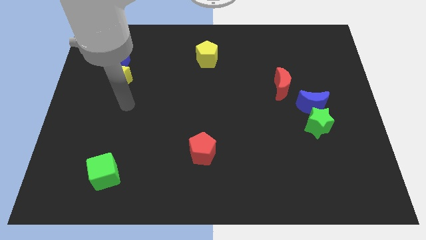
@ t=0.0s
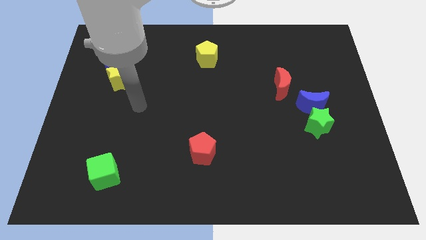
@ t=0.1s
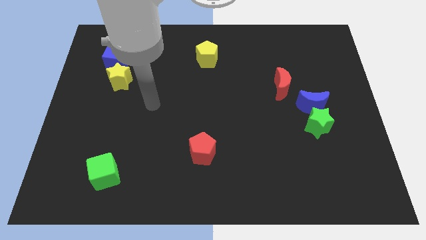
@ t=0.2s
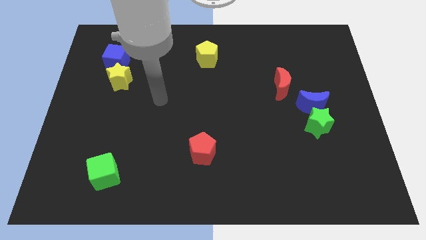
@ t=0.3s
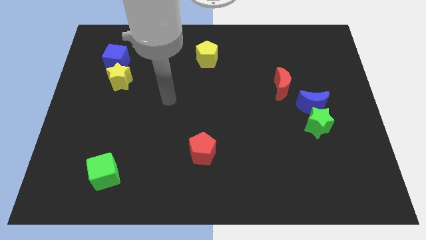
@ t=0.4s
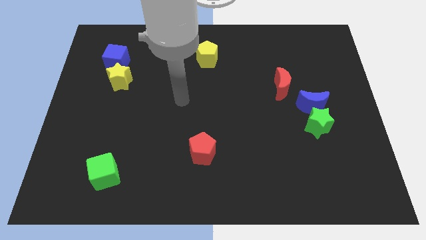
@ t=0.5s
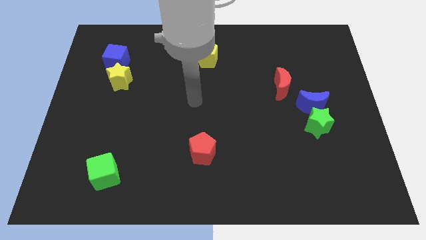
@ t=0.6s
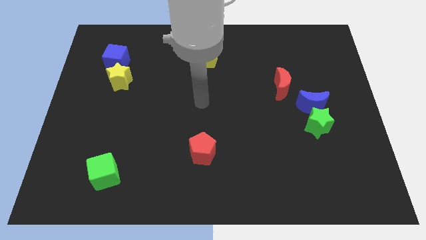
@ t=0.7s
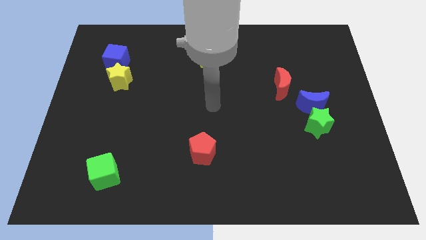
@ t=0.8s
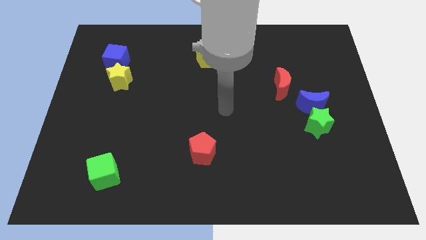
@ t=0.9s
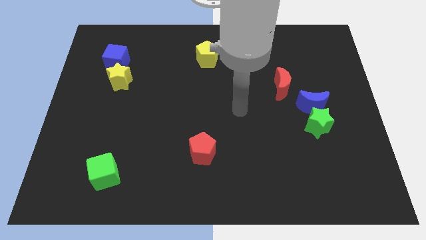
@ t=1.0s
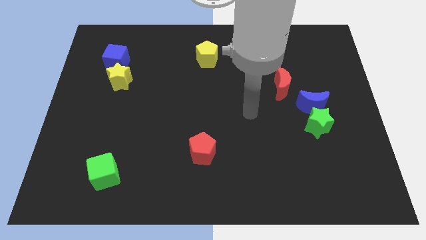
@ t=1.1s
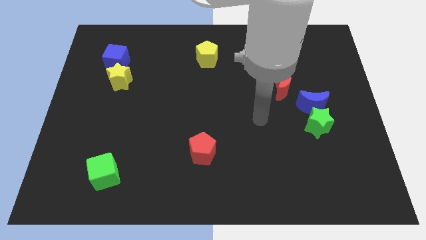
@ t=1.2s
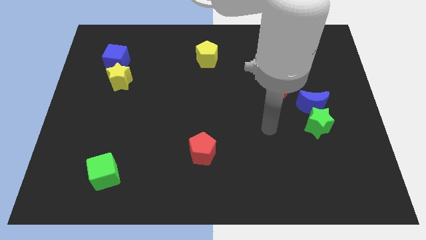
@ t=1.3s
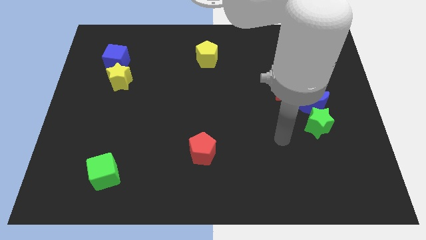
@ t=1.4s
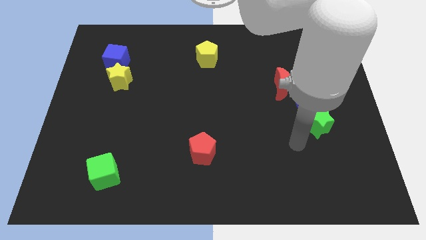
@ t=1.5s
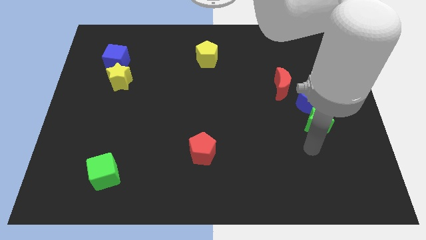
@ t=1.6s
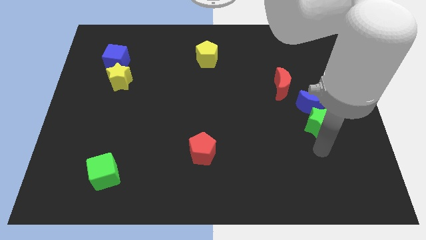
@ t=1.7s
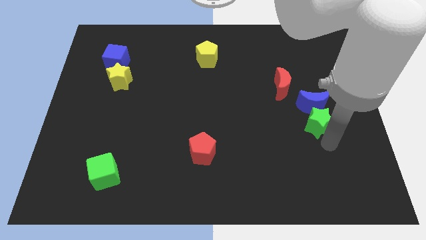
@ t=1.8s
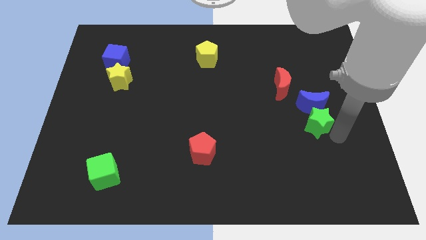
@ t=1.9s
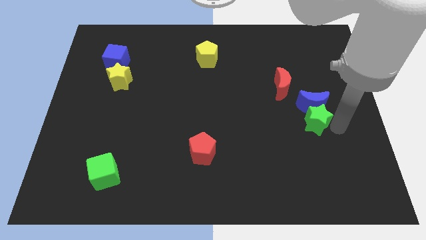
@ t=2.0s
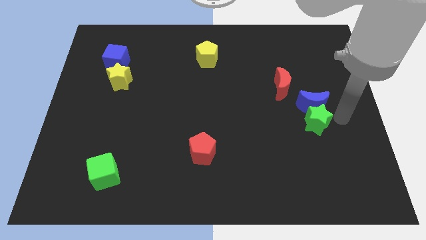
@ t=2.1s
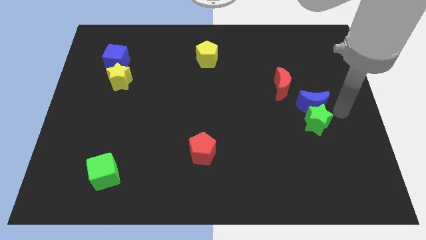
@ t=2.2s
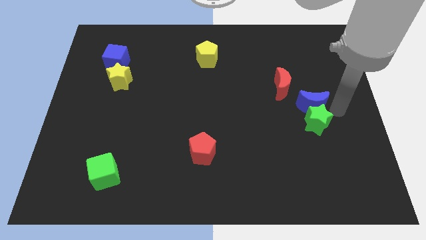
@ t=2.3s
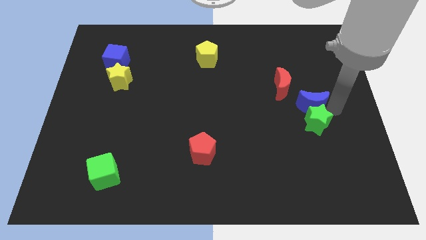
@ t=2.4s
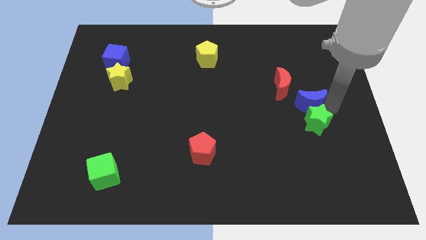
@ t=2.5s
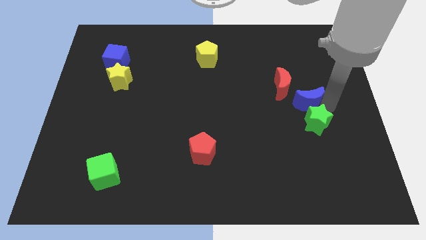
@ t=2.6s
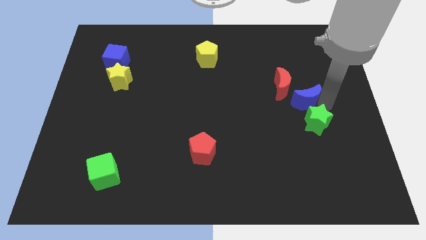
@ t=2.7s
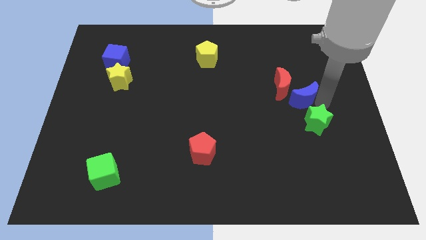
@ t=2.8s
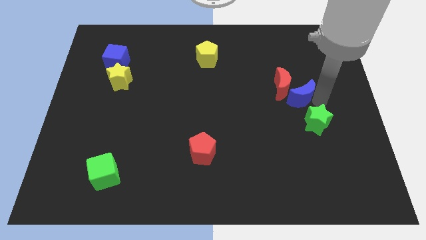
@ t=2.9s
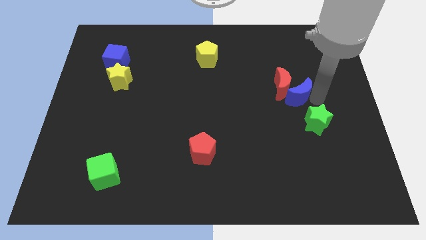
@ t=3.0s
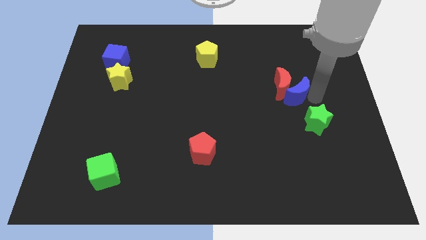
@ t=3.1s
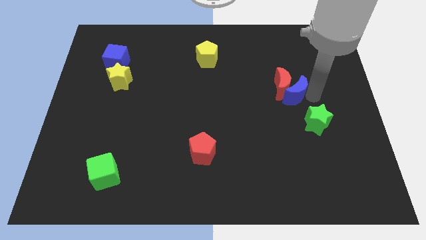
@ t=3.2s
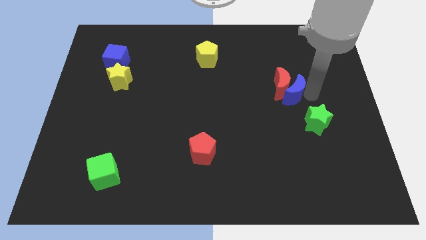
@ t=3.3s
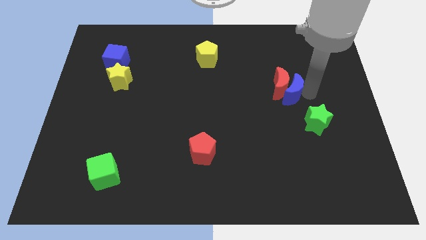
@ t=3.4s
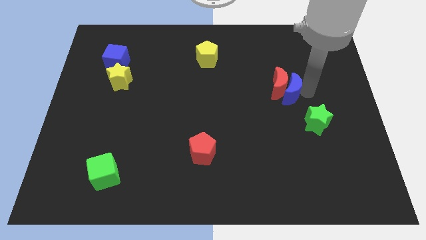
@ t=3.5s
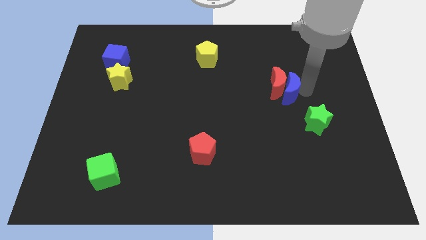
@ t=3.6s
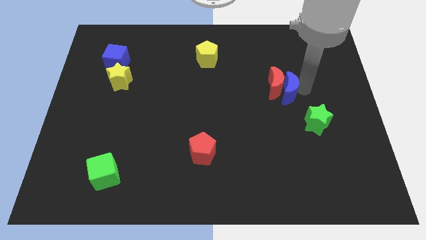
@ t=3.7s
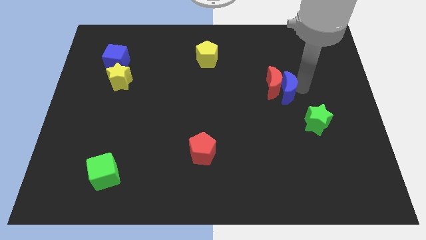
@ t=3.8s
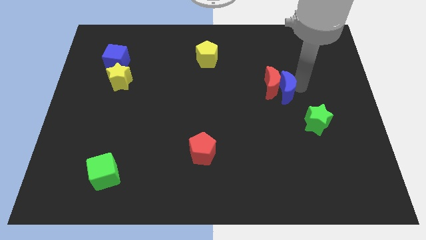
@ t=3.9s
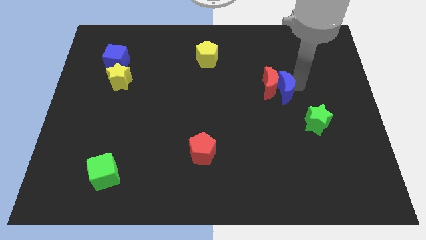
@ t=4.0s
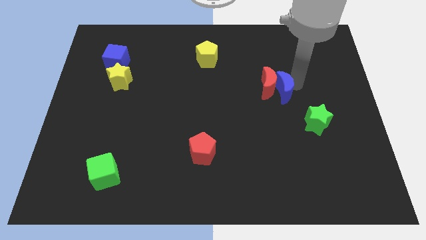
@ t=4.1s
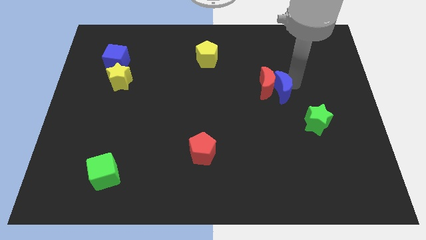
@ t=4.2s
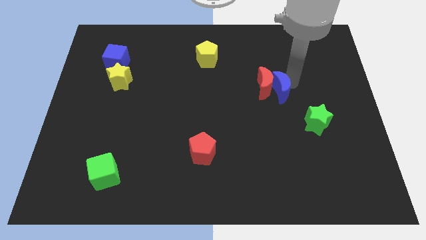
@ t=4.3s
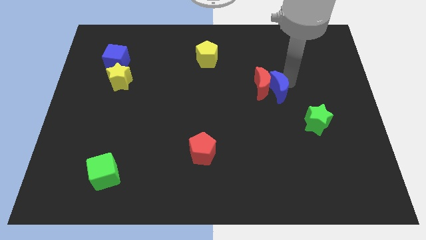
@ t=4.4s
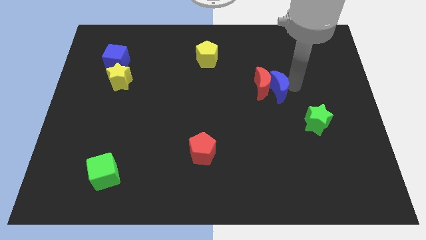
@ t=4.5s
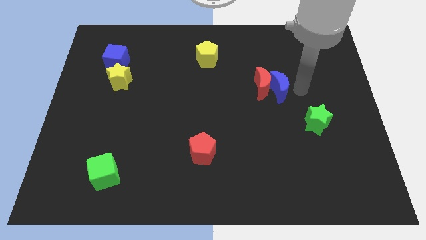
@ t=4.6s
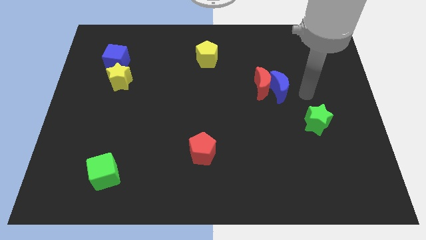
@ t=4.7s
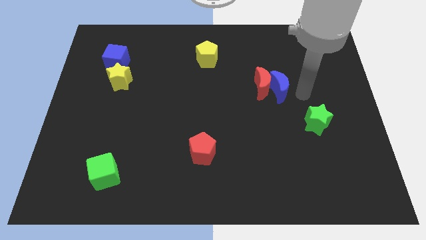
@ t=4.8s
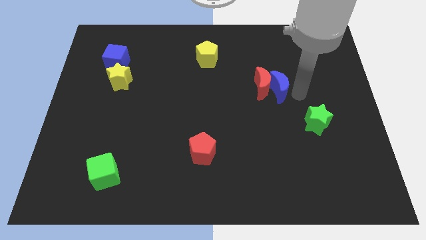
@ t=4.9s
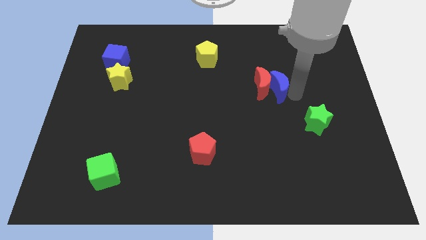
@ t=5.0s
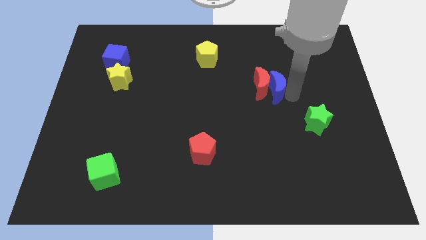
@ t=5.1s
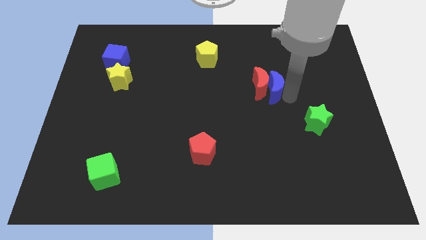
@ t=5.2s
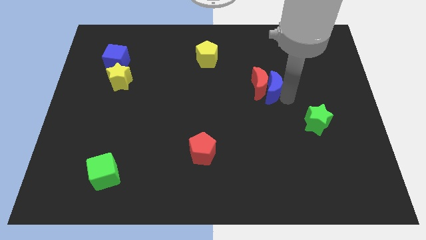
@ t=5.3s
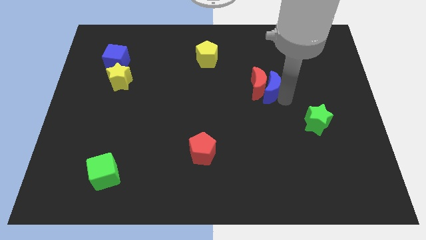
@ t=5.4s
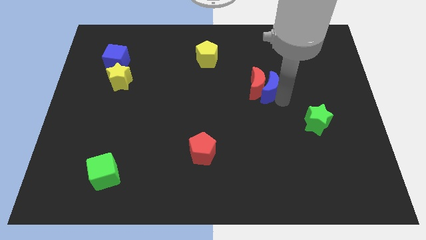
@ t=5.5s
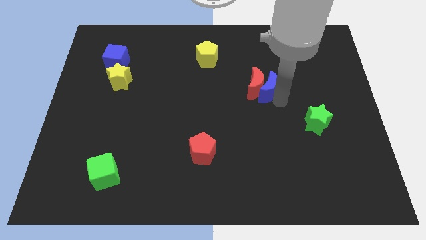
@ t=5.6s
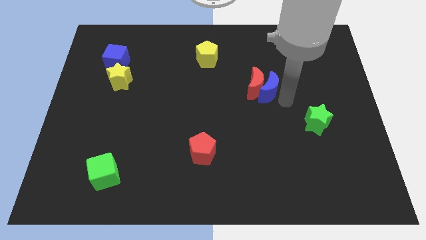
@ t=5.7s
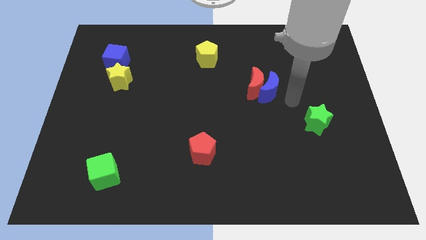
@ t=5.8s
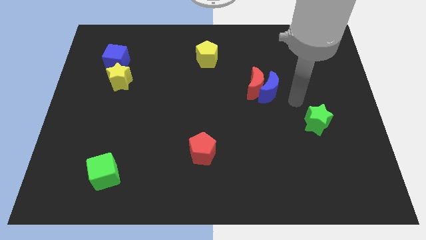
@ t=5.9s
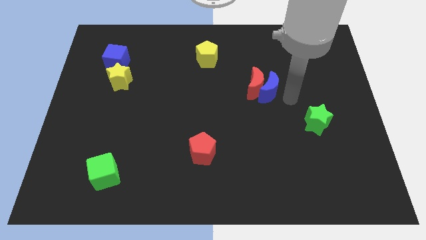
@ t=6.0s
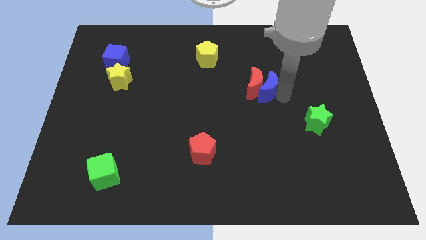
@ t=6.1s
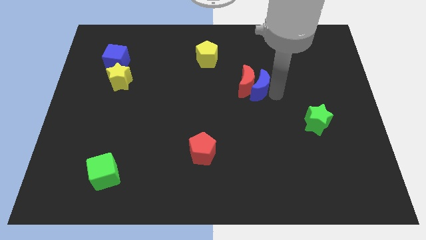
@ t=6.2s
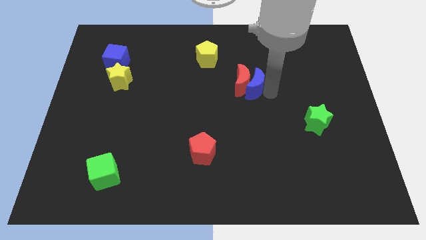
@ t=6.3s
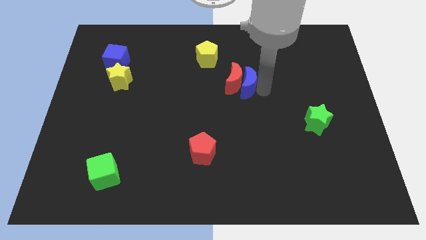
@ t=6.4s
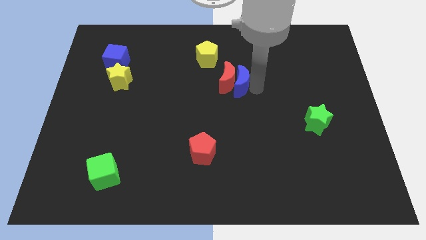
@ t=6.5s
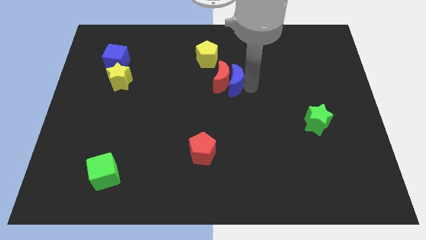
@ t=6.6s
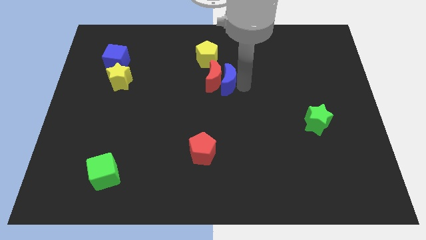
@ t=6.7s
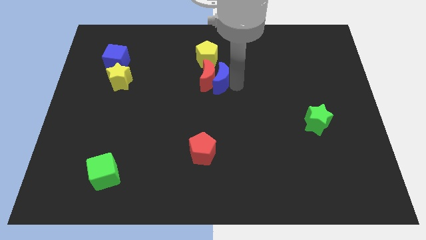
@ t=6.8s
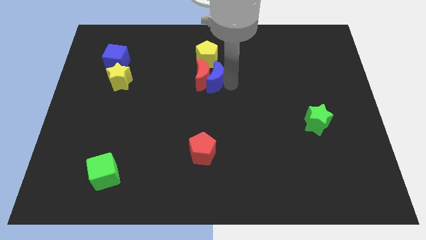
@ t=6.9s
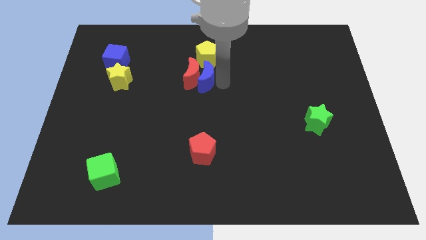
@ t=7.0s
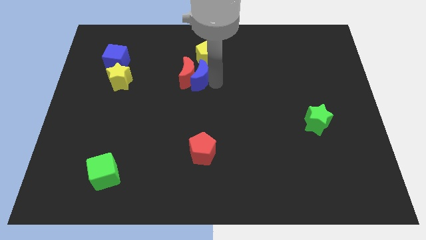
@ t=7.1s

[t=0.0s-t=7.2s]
push the blue moon to the bottom left side of the yellow pentagon
